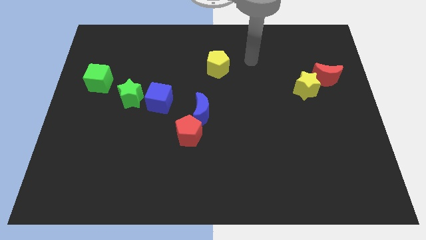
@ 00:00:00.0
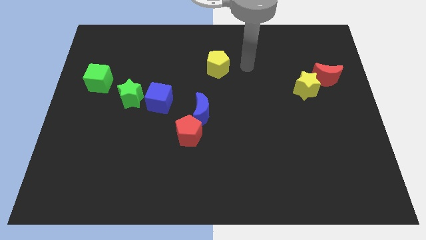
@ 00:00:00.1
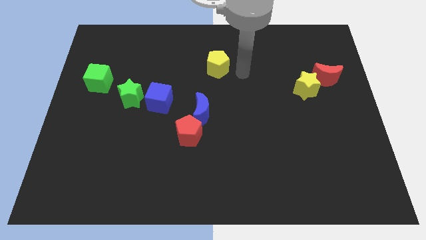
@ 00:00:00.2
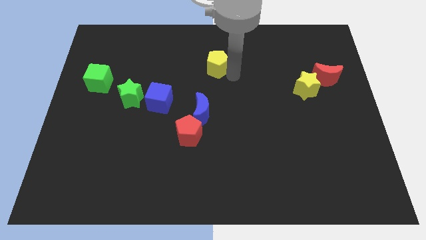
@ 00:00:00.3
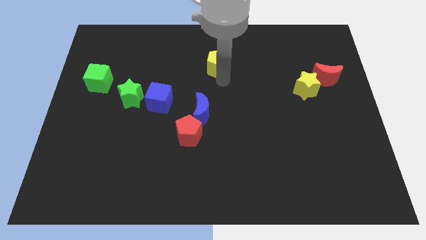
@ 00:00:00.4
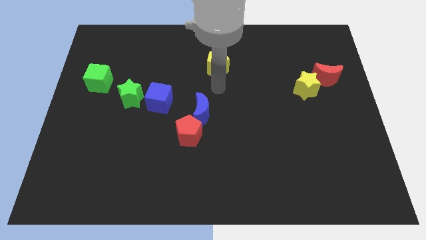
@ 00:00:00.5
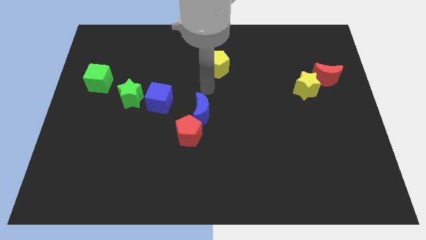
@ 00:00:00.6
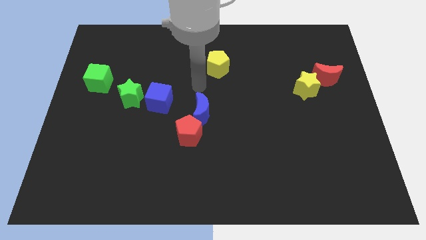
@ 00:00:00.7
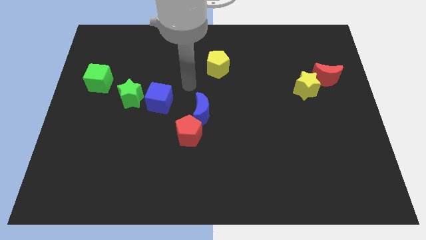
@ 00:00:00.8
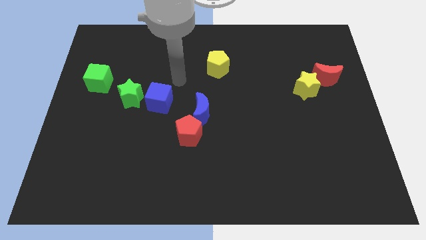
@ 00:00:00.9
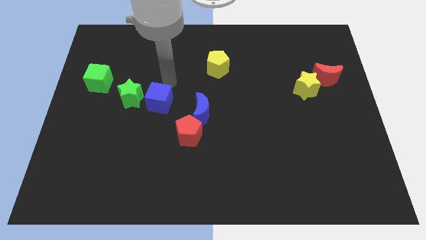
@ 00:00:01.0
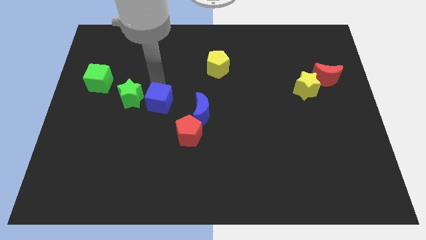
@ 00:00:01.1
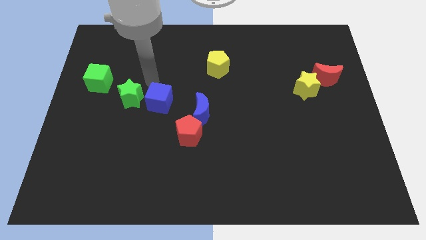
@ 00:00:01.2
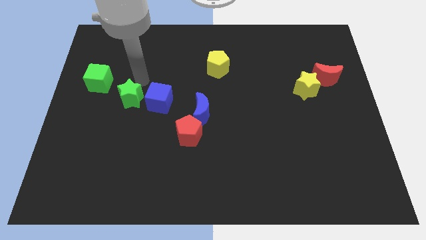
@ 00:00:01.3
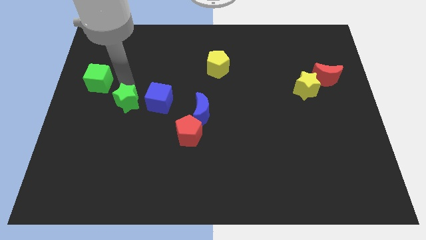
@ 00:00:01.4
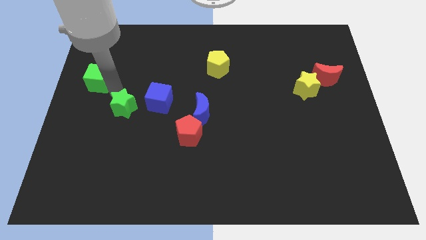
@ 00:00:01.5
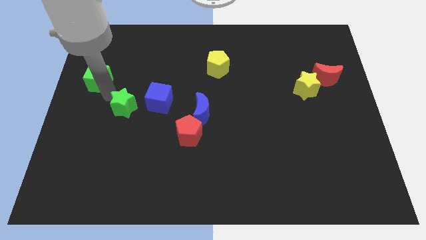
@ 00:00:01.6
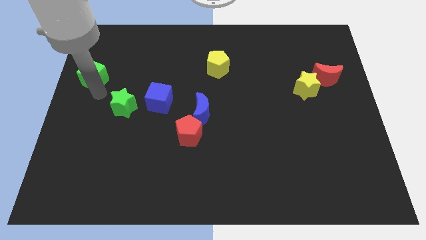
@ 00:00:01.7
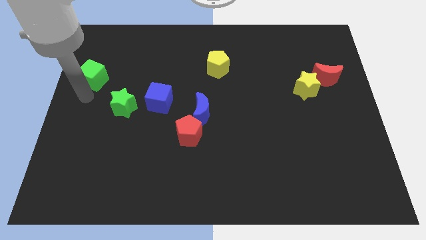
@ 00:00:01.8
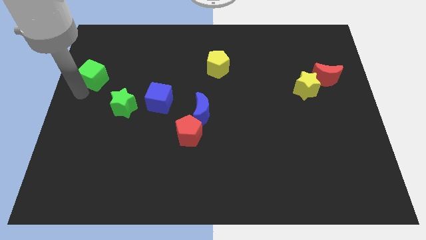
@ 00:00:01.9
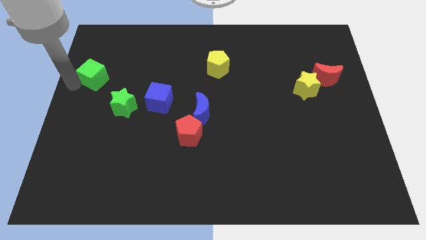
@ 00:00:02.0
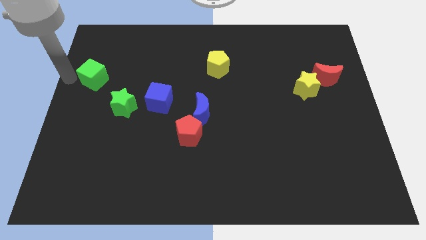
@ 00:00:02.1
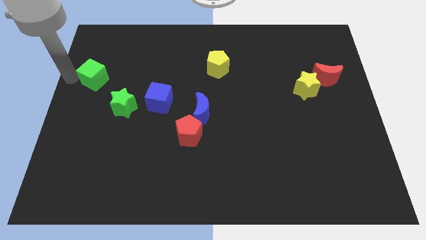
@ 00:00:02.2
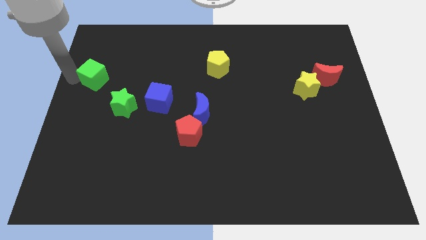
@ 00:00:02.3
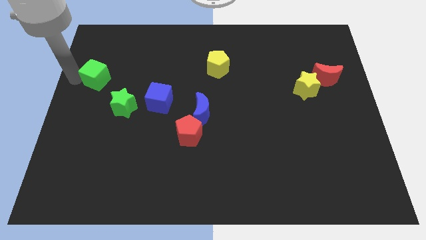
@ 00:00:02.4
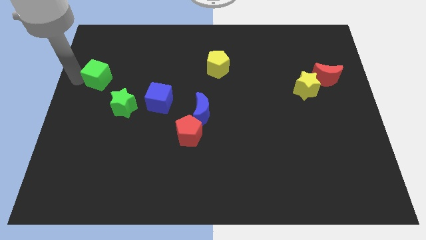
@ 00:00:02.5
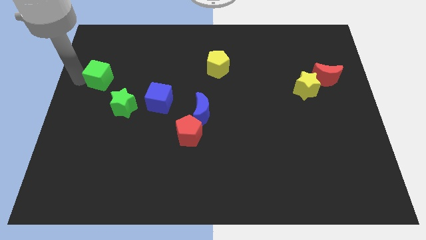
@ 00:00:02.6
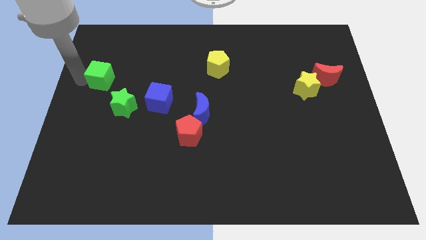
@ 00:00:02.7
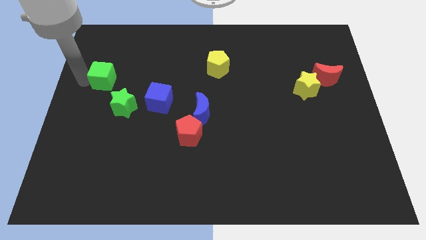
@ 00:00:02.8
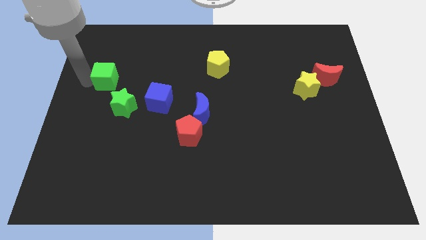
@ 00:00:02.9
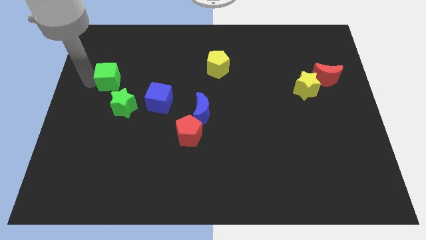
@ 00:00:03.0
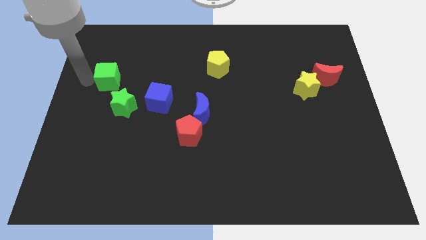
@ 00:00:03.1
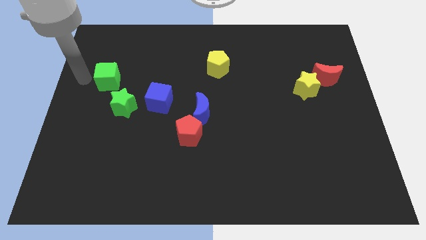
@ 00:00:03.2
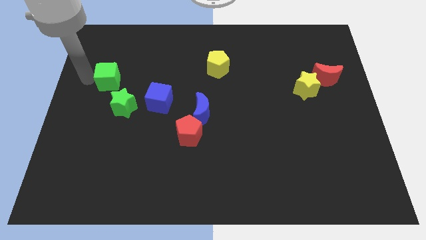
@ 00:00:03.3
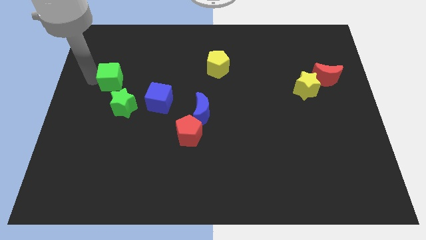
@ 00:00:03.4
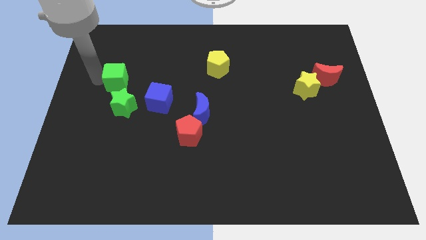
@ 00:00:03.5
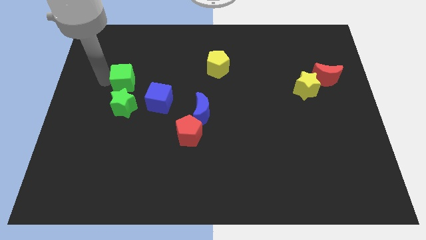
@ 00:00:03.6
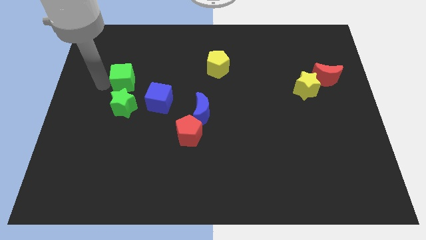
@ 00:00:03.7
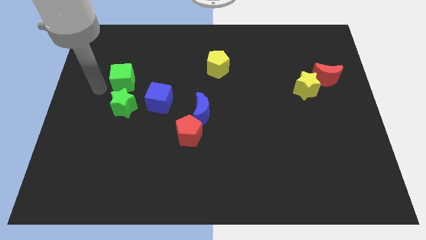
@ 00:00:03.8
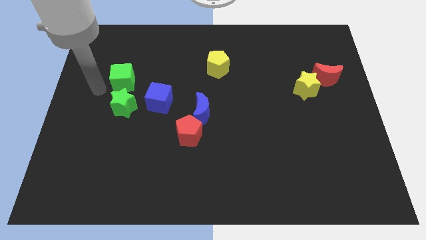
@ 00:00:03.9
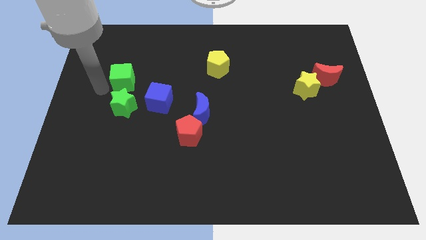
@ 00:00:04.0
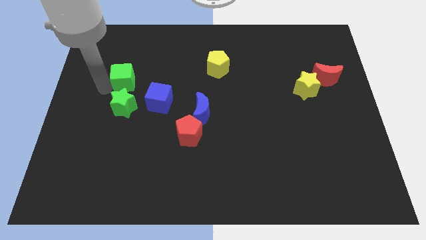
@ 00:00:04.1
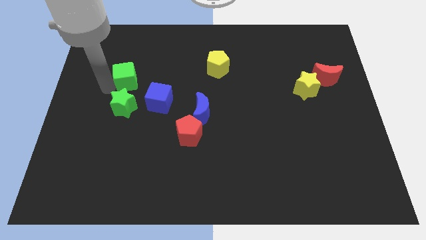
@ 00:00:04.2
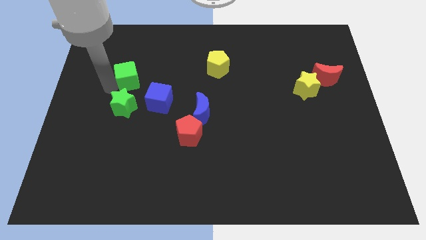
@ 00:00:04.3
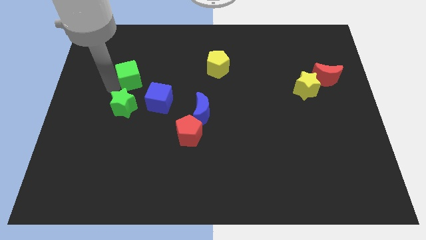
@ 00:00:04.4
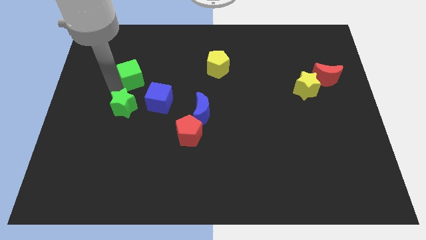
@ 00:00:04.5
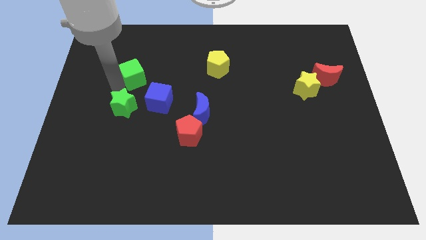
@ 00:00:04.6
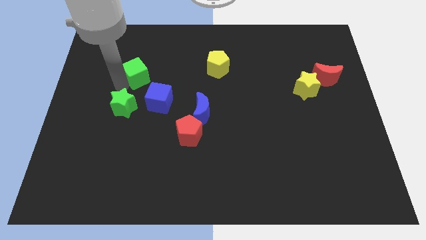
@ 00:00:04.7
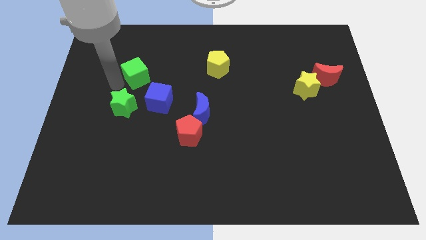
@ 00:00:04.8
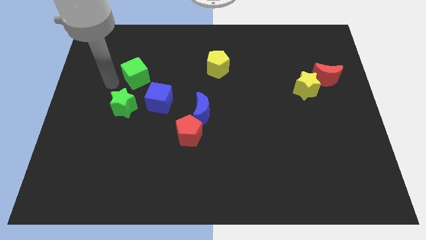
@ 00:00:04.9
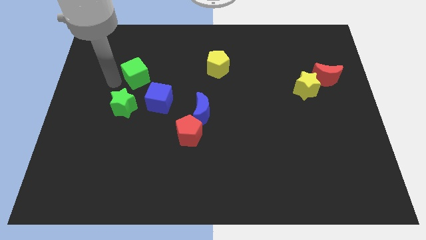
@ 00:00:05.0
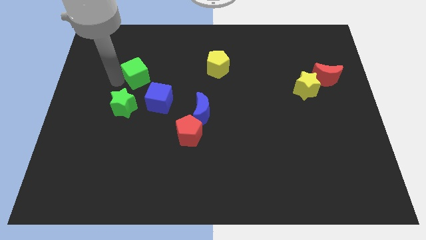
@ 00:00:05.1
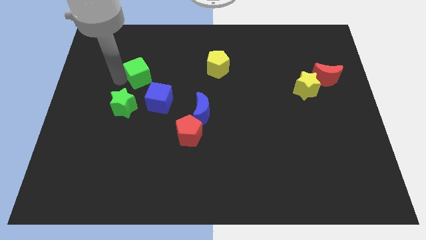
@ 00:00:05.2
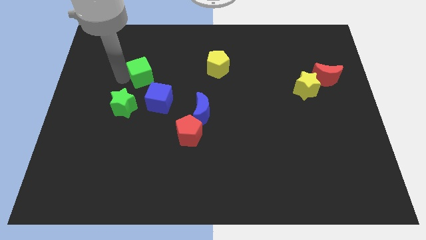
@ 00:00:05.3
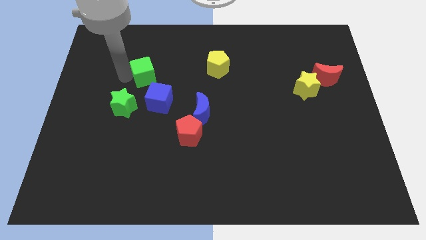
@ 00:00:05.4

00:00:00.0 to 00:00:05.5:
push the green cube to the top of the blue cube
